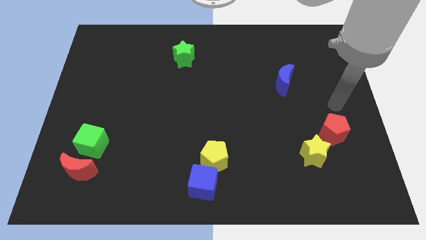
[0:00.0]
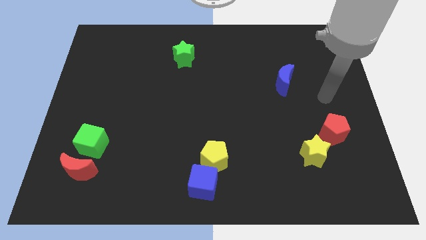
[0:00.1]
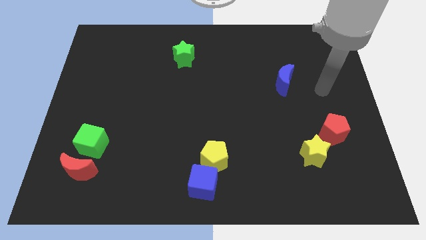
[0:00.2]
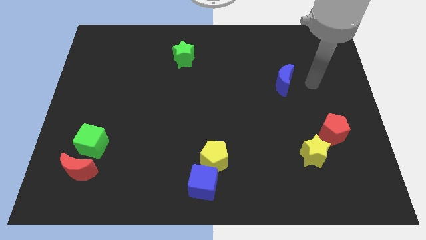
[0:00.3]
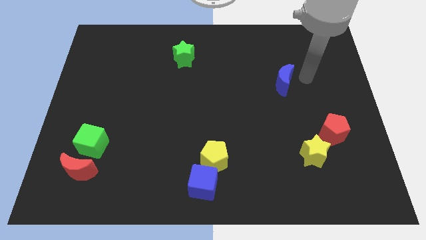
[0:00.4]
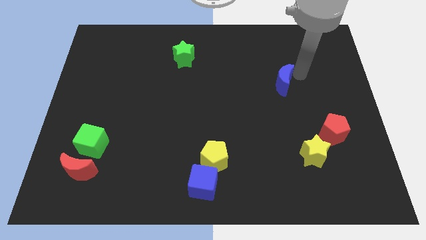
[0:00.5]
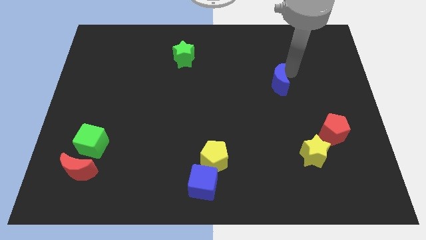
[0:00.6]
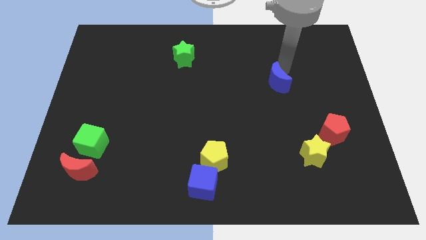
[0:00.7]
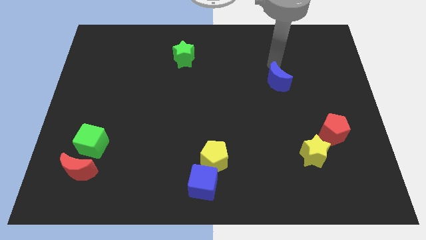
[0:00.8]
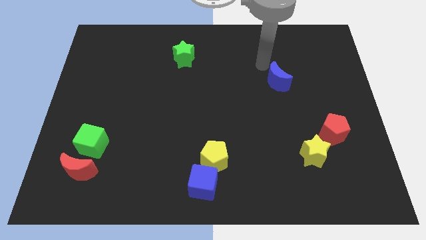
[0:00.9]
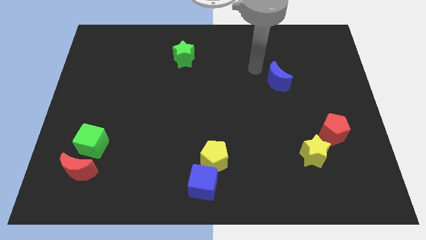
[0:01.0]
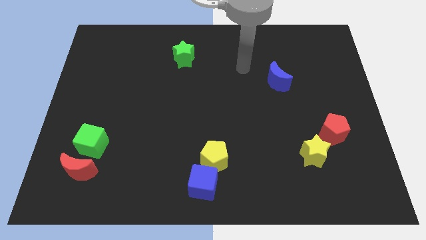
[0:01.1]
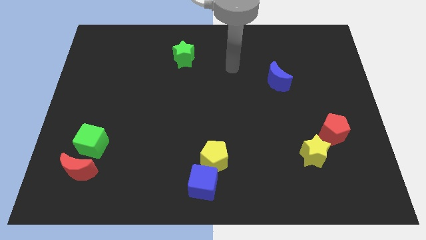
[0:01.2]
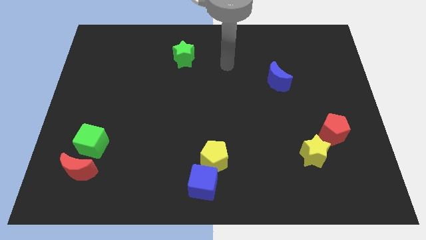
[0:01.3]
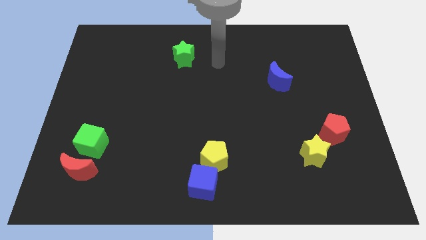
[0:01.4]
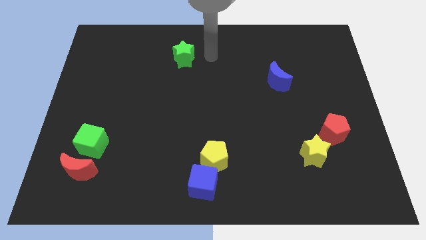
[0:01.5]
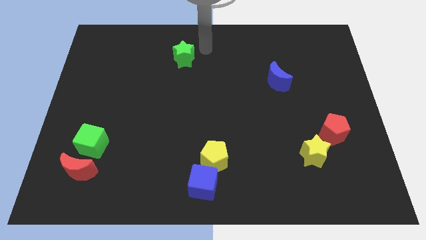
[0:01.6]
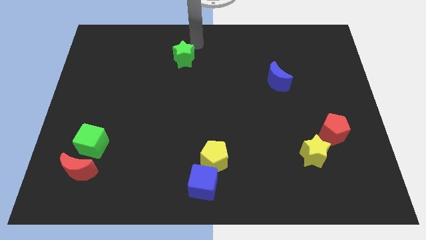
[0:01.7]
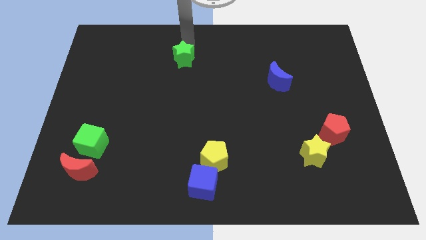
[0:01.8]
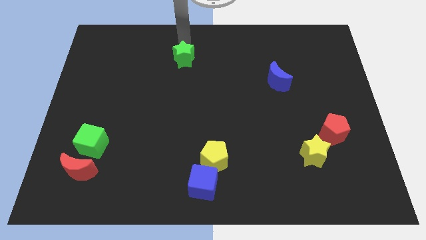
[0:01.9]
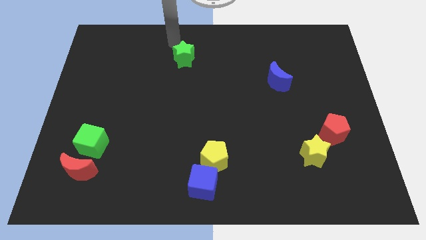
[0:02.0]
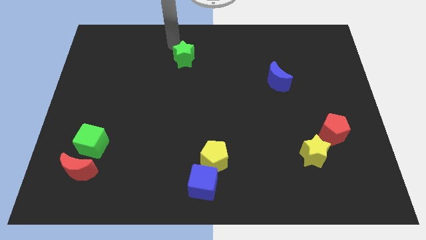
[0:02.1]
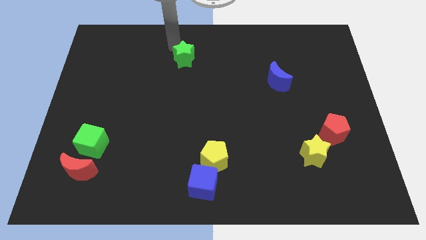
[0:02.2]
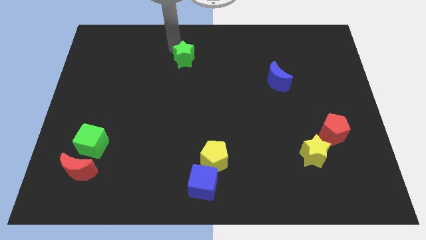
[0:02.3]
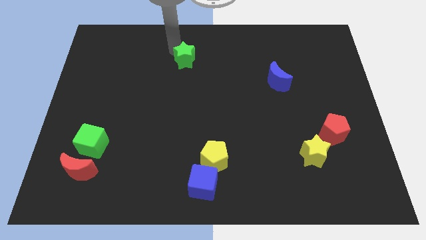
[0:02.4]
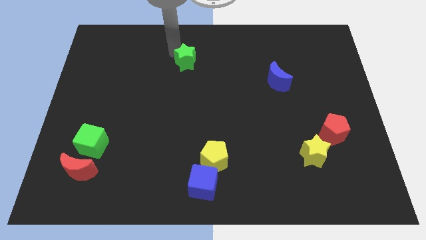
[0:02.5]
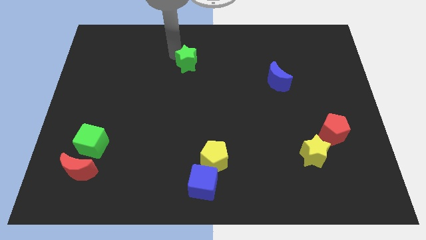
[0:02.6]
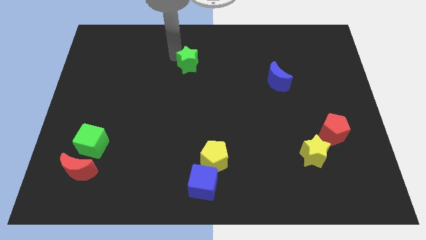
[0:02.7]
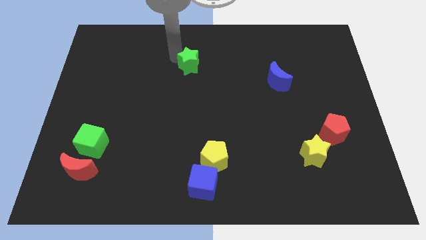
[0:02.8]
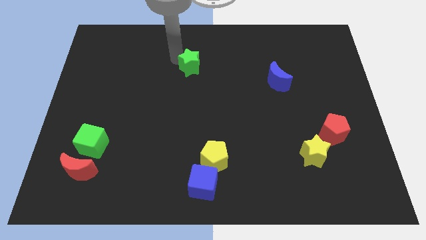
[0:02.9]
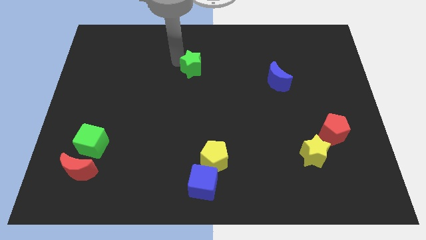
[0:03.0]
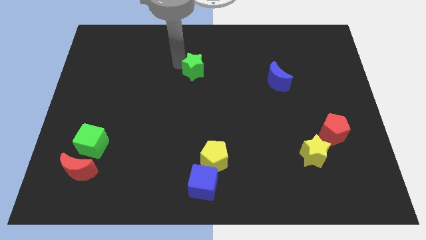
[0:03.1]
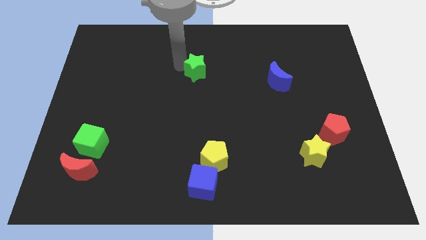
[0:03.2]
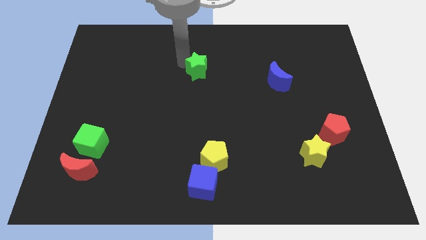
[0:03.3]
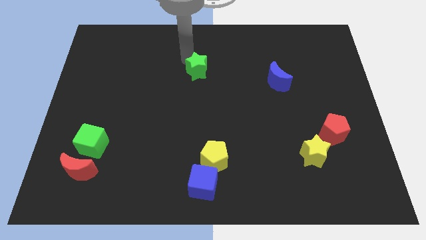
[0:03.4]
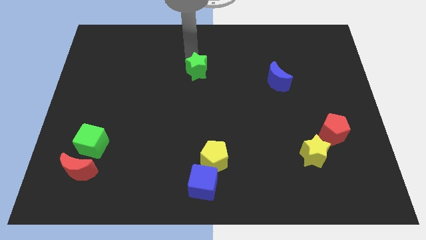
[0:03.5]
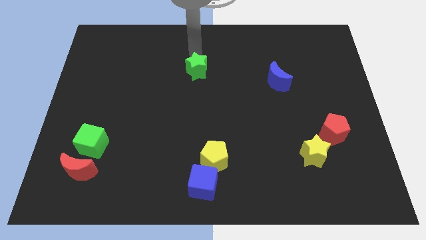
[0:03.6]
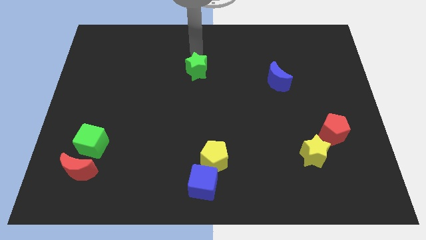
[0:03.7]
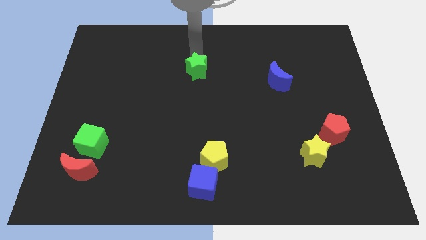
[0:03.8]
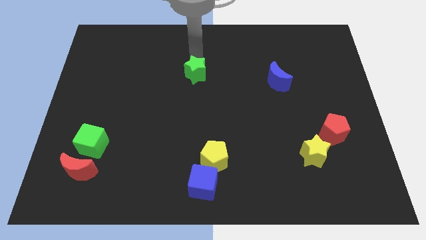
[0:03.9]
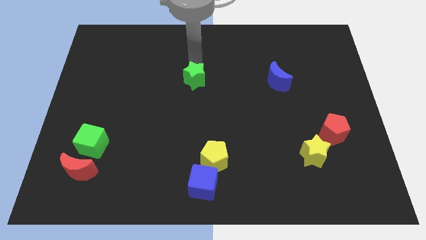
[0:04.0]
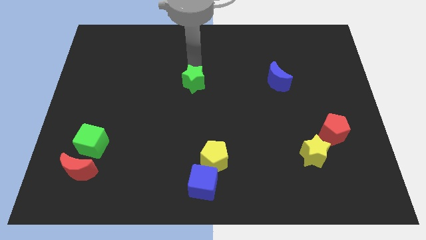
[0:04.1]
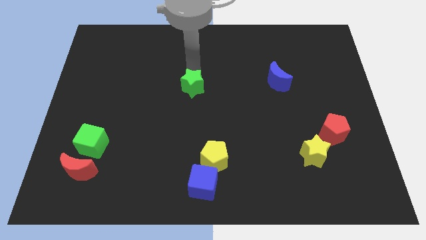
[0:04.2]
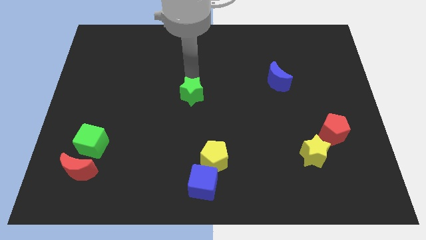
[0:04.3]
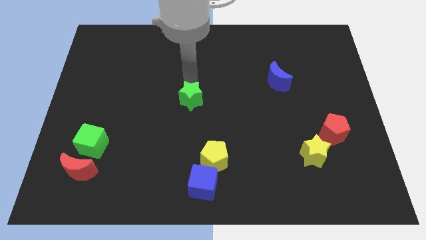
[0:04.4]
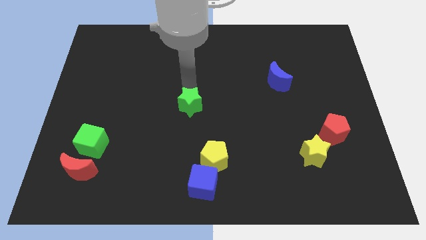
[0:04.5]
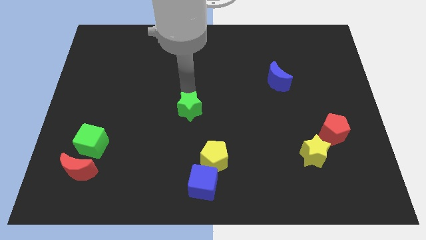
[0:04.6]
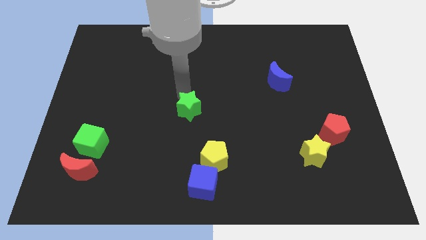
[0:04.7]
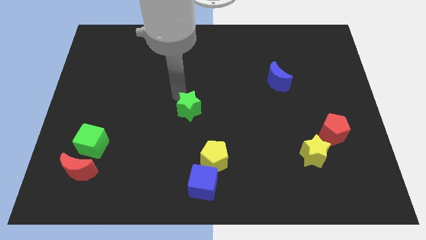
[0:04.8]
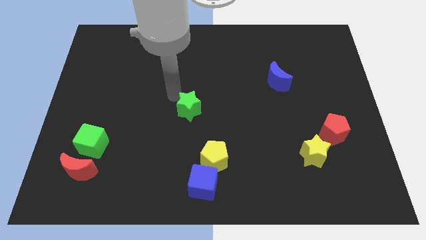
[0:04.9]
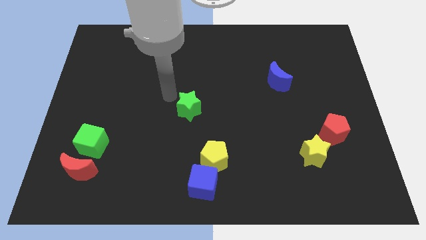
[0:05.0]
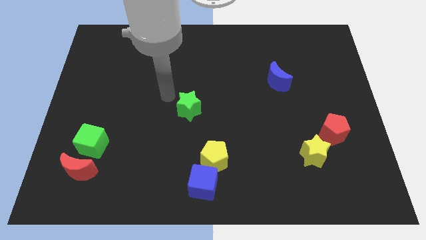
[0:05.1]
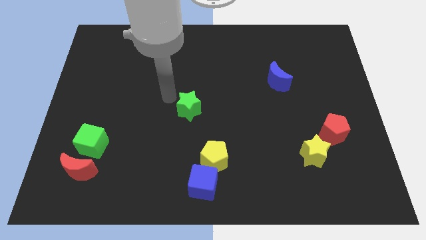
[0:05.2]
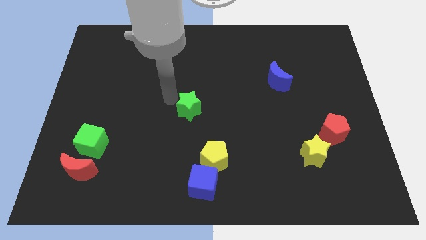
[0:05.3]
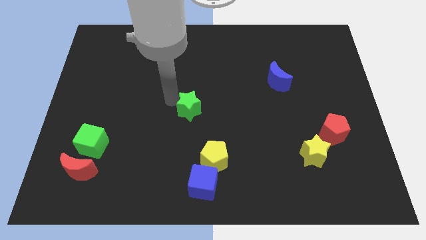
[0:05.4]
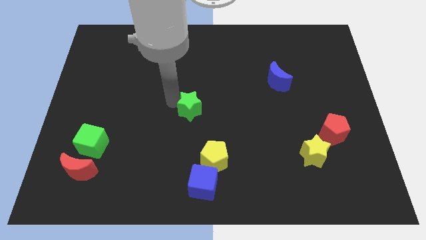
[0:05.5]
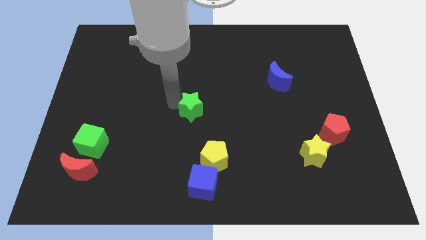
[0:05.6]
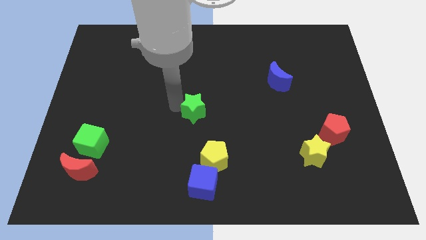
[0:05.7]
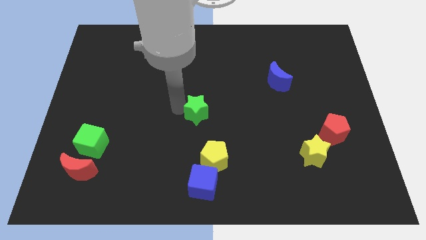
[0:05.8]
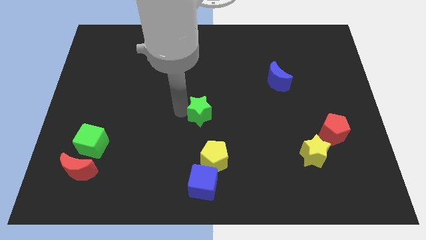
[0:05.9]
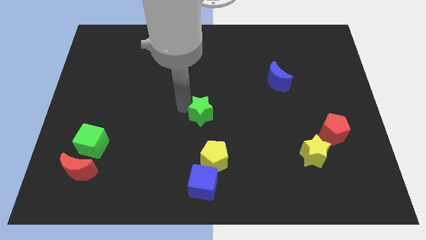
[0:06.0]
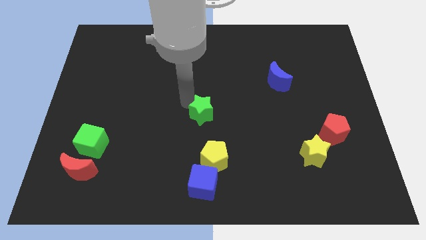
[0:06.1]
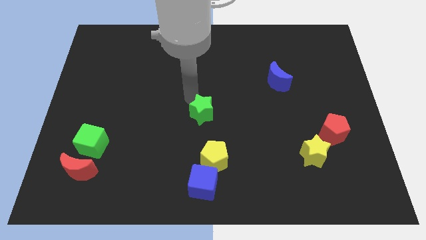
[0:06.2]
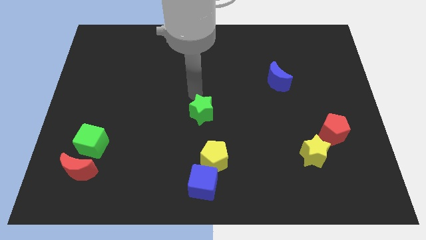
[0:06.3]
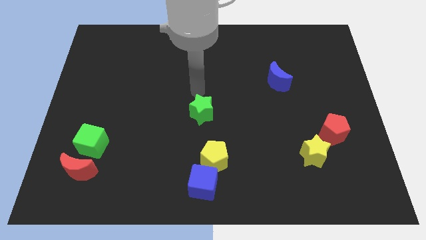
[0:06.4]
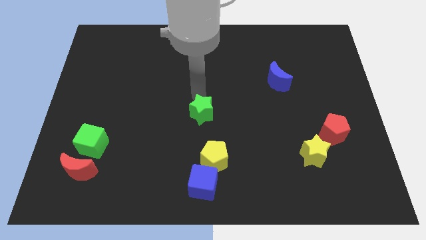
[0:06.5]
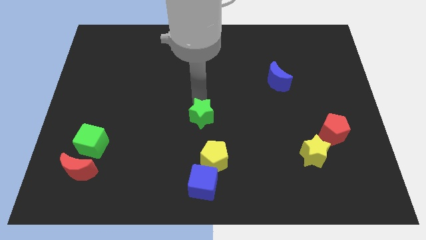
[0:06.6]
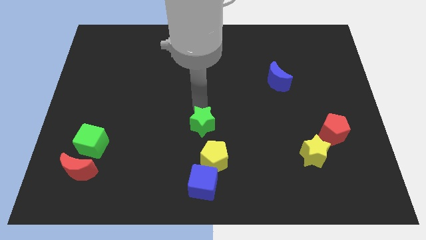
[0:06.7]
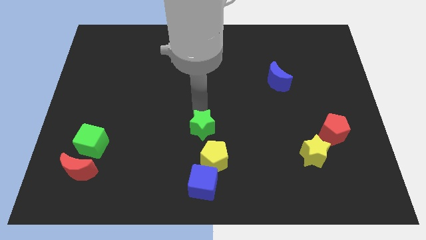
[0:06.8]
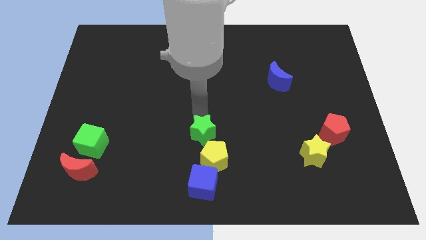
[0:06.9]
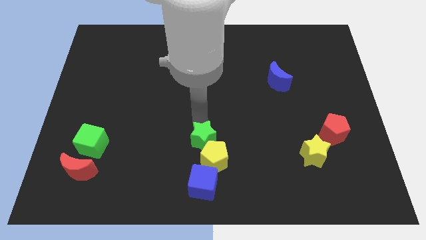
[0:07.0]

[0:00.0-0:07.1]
push the green star next to the yellow pentagon
